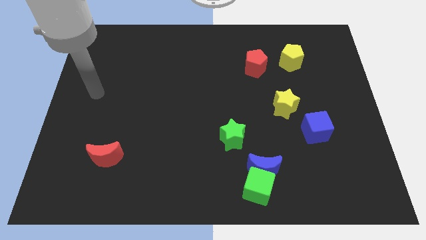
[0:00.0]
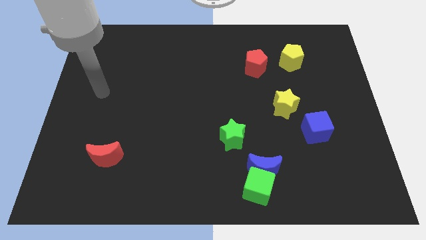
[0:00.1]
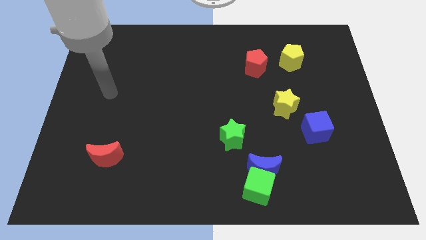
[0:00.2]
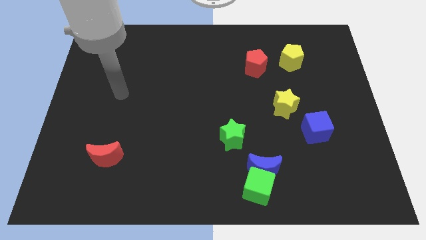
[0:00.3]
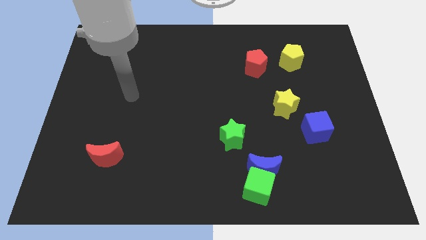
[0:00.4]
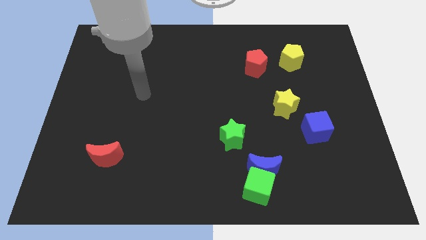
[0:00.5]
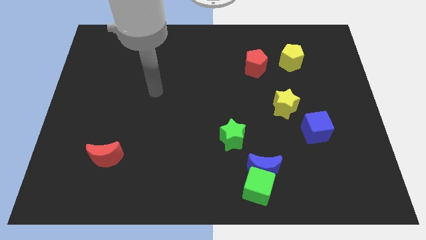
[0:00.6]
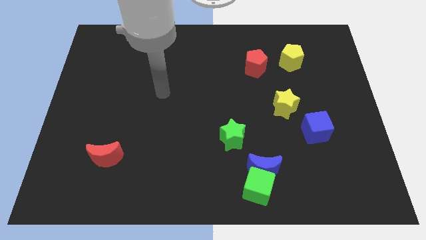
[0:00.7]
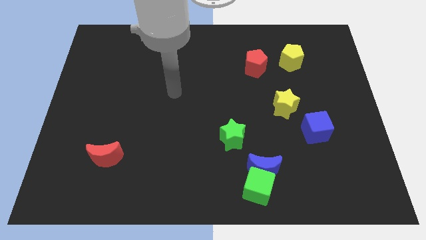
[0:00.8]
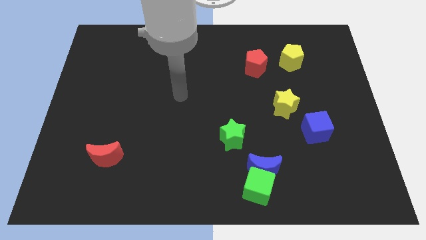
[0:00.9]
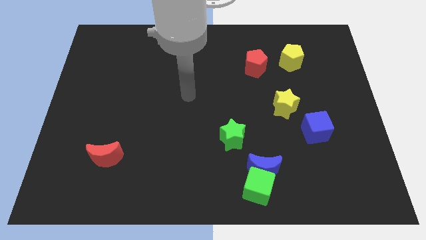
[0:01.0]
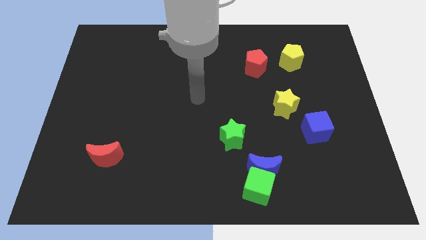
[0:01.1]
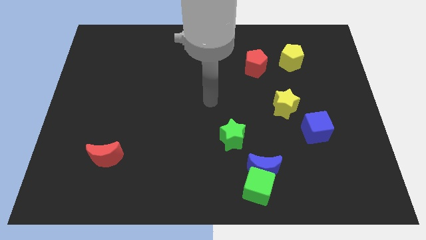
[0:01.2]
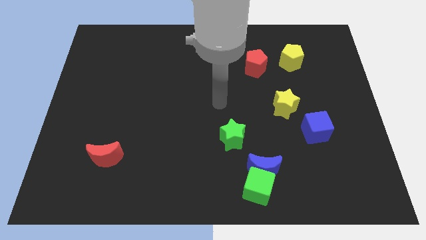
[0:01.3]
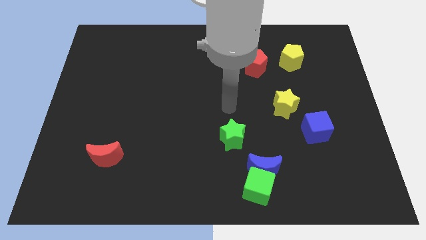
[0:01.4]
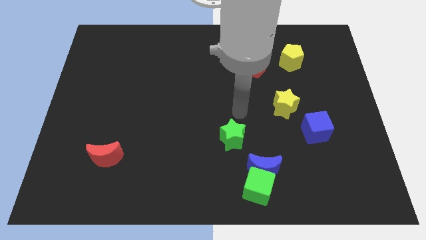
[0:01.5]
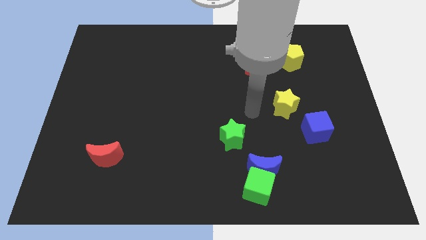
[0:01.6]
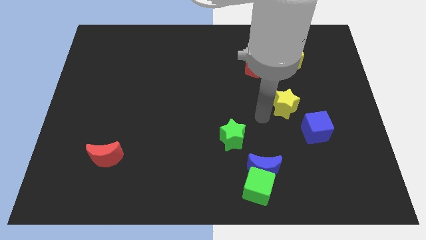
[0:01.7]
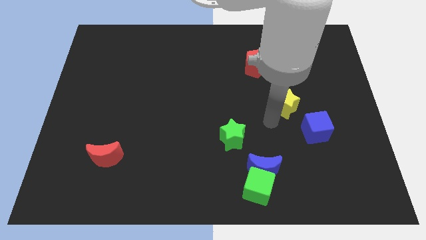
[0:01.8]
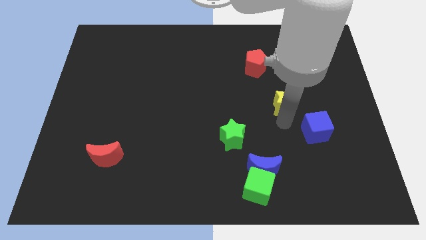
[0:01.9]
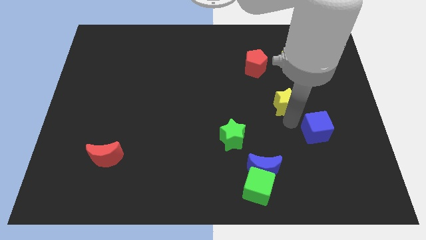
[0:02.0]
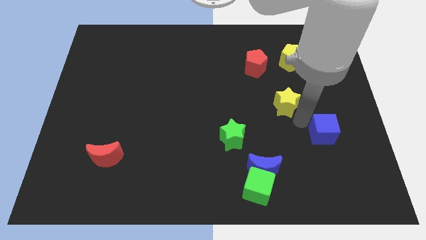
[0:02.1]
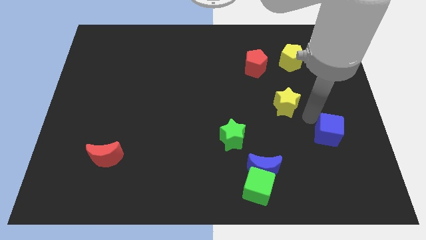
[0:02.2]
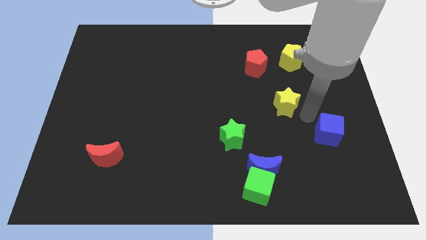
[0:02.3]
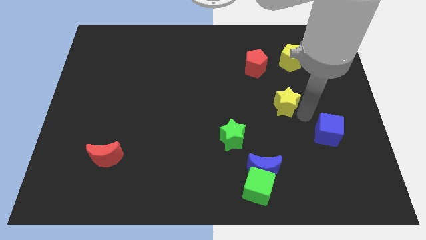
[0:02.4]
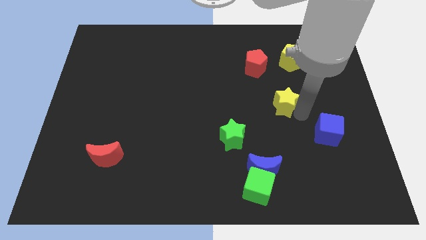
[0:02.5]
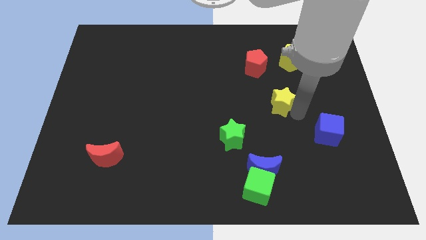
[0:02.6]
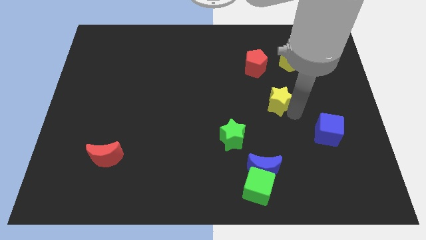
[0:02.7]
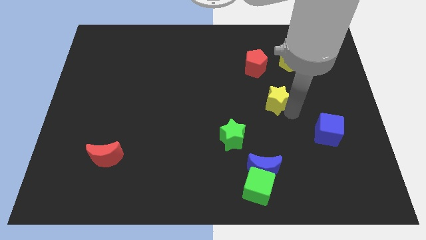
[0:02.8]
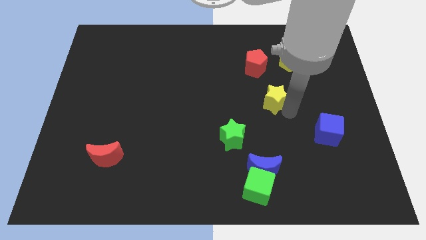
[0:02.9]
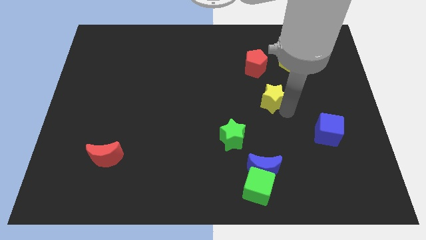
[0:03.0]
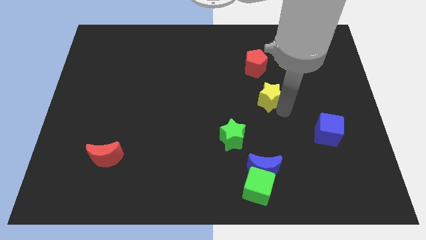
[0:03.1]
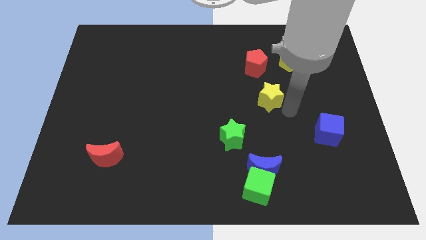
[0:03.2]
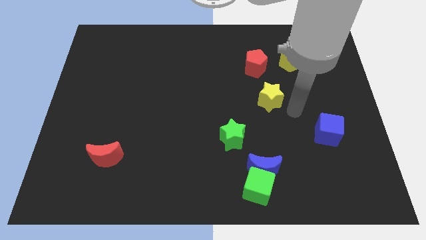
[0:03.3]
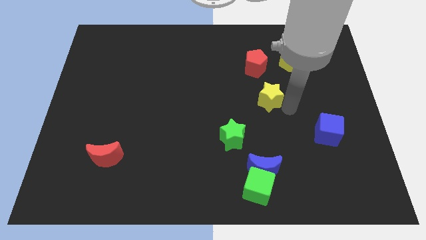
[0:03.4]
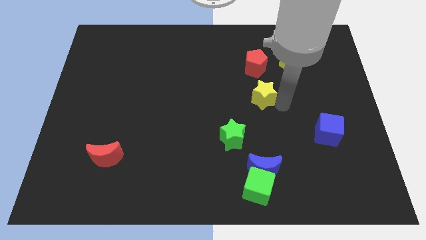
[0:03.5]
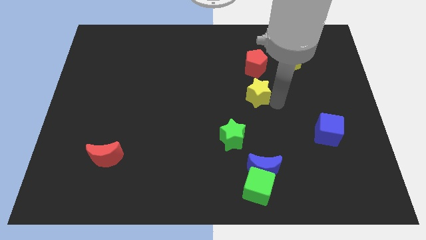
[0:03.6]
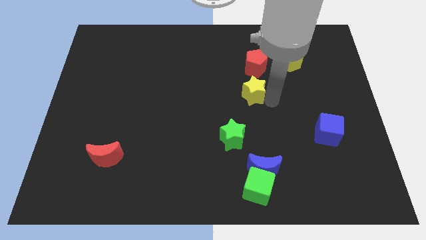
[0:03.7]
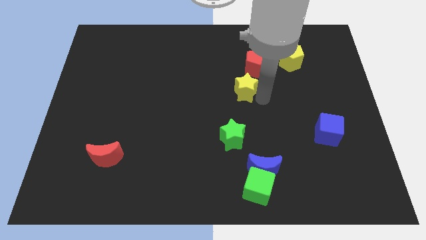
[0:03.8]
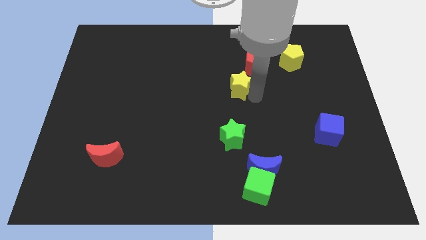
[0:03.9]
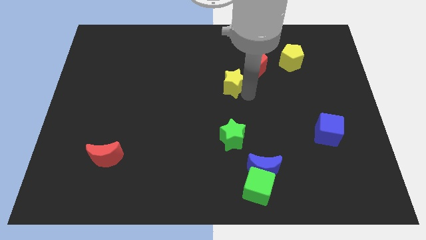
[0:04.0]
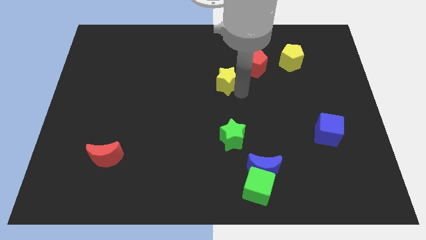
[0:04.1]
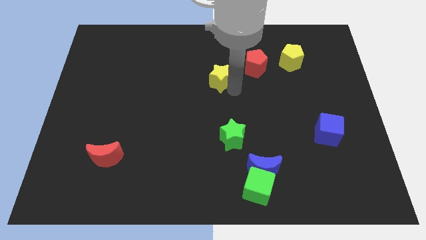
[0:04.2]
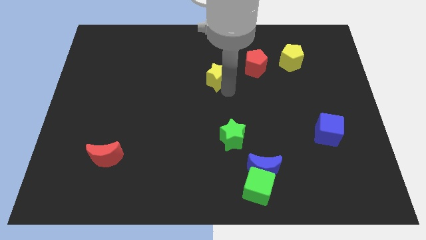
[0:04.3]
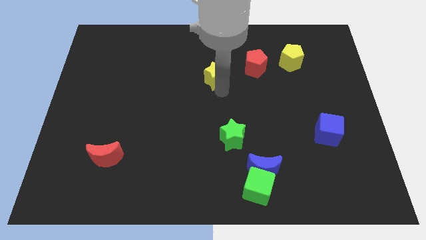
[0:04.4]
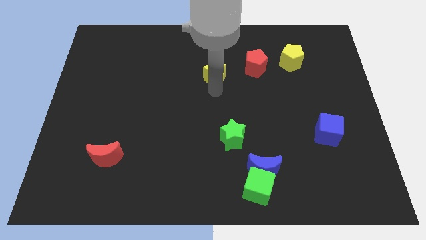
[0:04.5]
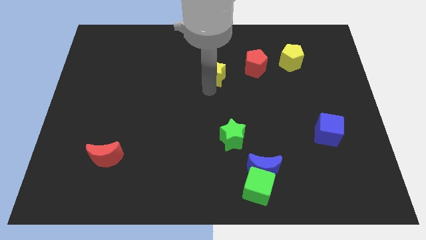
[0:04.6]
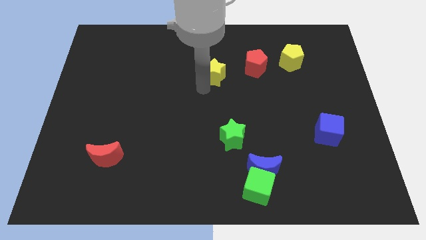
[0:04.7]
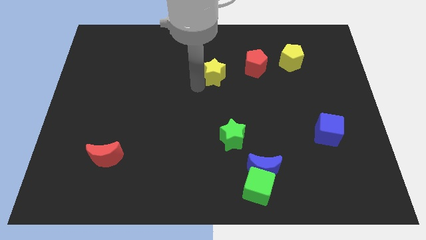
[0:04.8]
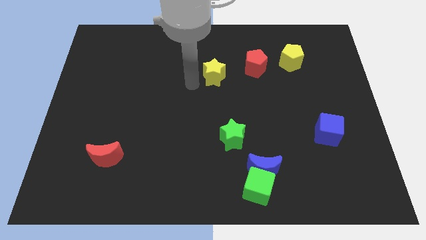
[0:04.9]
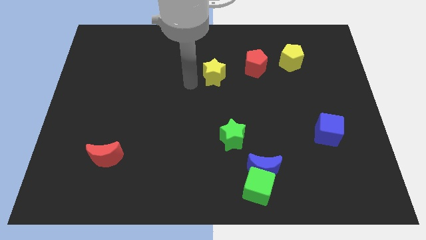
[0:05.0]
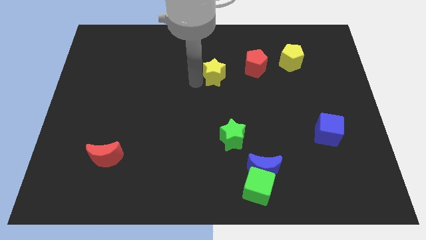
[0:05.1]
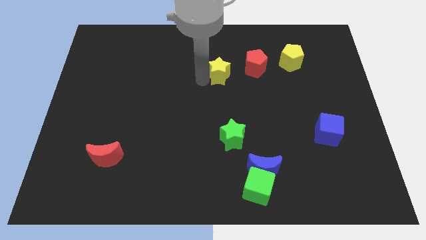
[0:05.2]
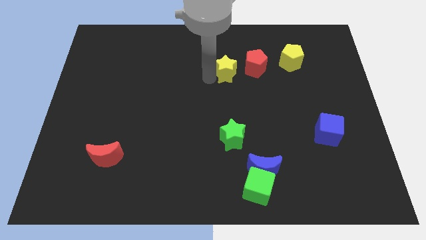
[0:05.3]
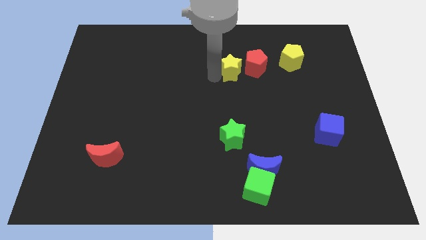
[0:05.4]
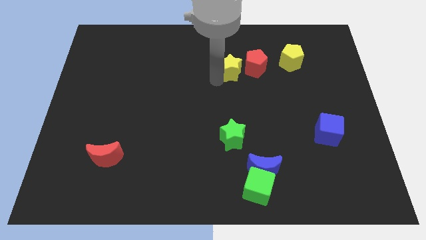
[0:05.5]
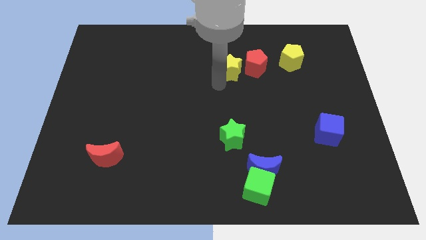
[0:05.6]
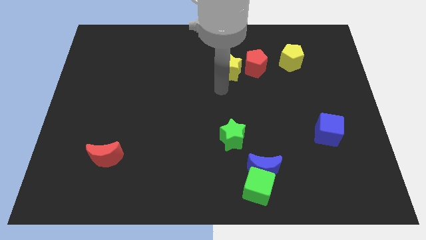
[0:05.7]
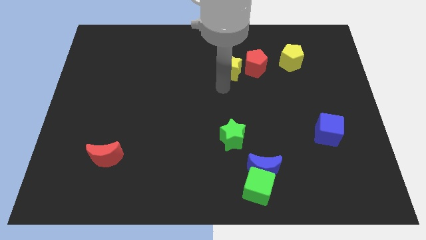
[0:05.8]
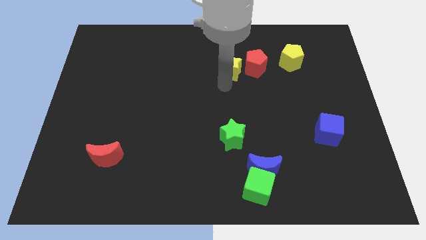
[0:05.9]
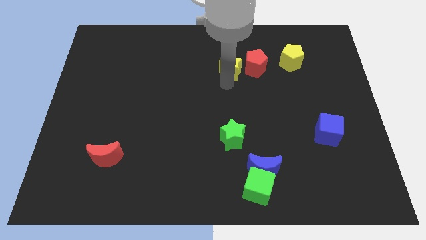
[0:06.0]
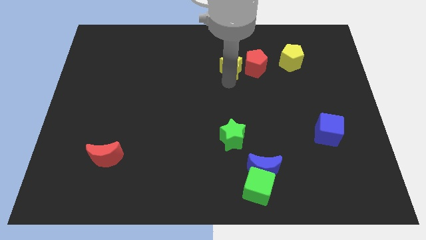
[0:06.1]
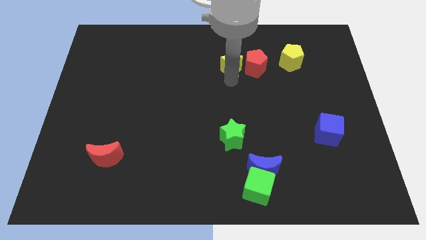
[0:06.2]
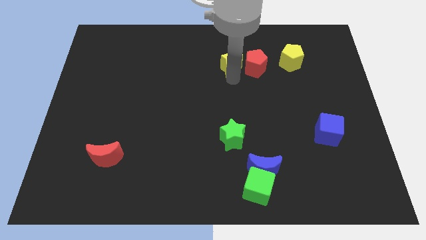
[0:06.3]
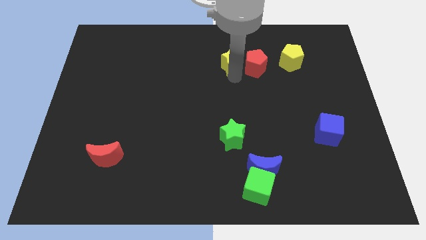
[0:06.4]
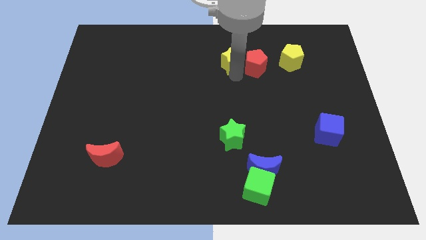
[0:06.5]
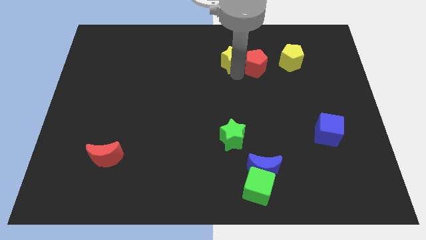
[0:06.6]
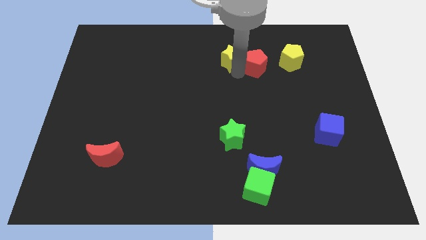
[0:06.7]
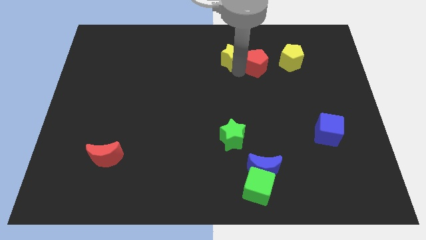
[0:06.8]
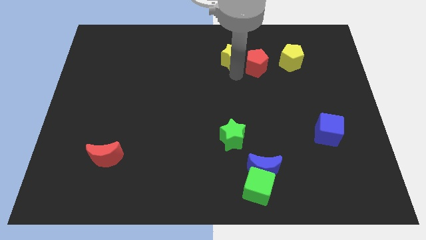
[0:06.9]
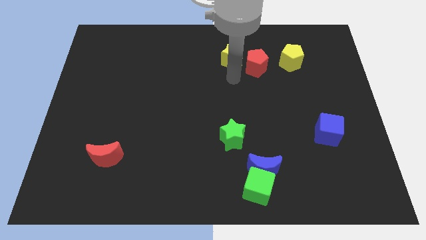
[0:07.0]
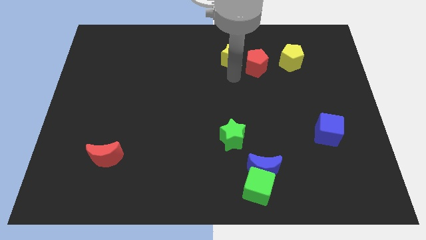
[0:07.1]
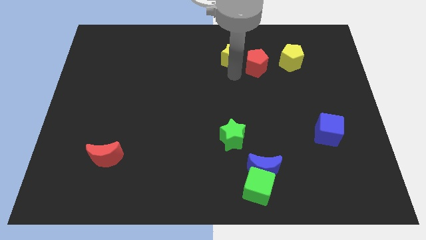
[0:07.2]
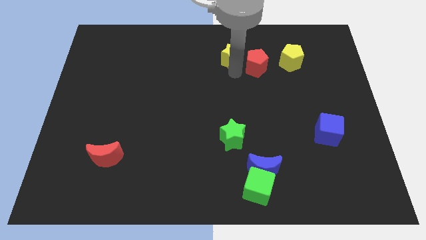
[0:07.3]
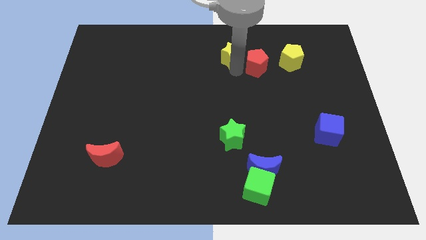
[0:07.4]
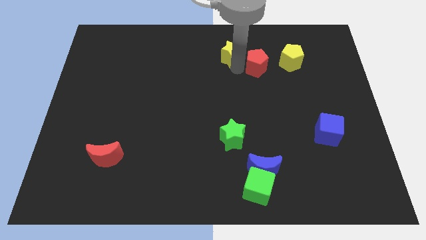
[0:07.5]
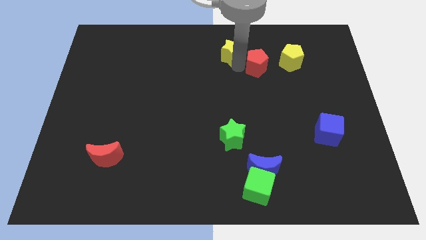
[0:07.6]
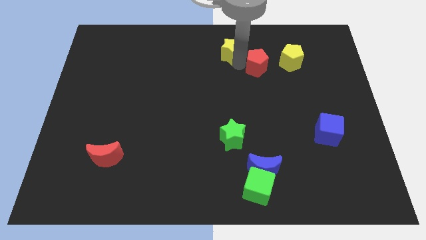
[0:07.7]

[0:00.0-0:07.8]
move the yellow star to the top
